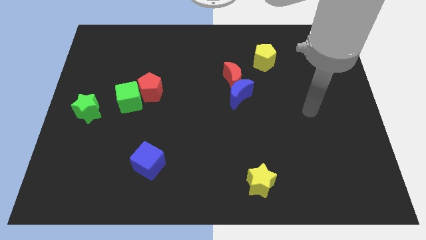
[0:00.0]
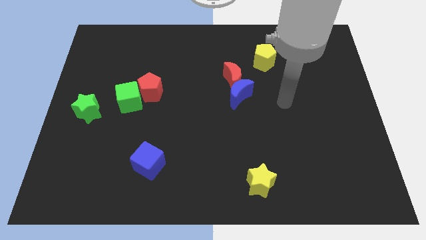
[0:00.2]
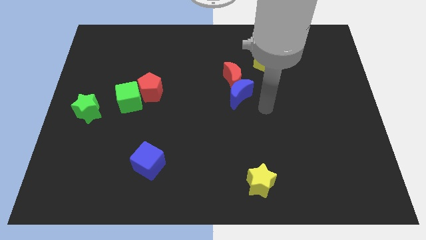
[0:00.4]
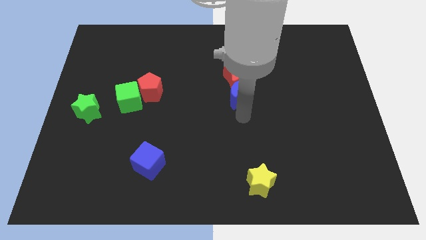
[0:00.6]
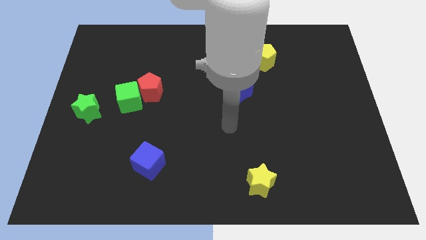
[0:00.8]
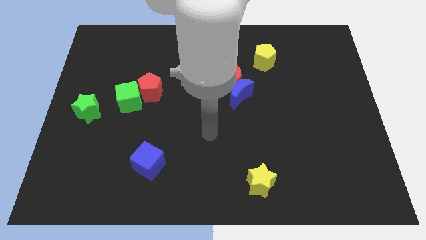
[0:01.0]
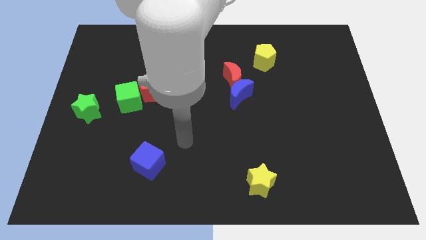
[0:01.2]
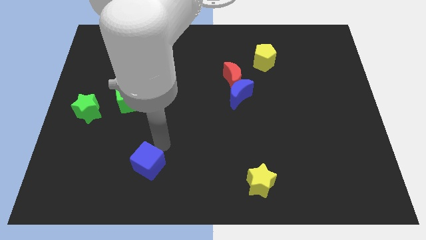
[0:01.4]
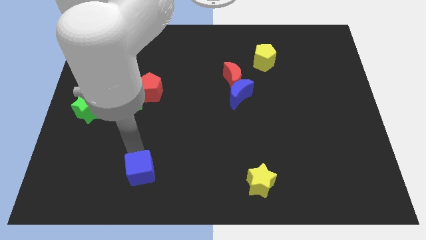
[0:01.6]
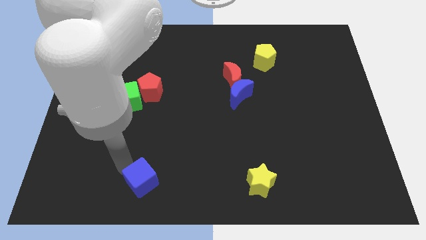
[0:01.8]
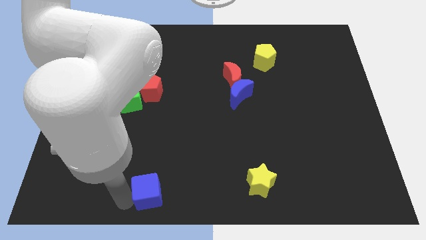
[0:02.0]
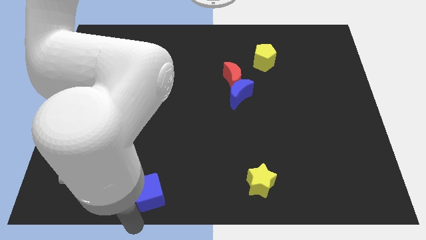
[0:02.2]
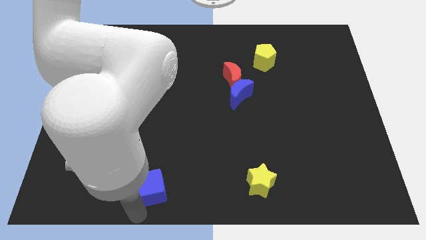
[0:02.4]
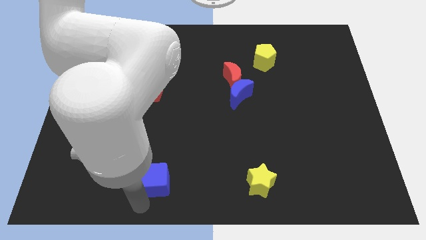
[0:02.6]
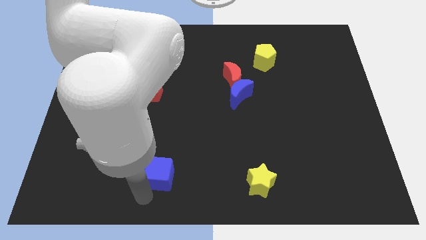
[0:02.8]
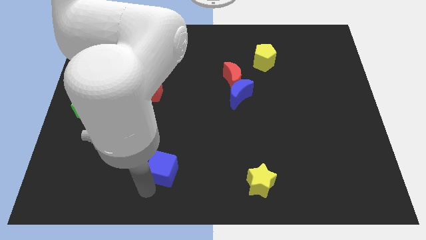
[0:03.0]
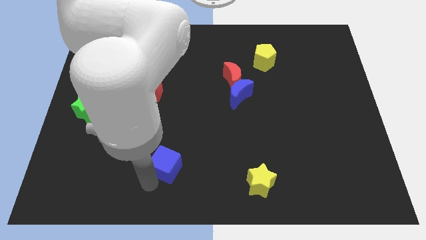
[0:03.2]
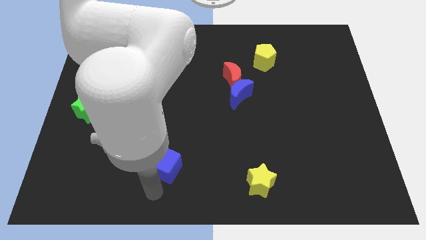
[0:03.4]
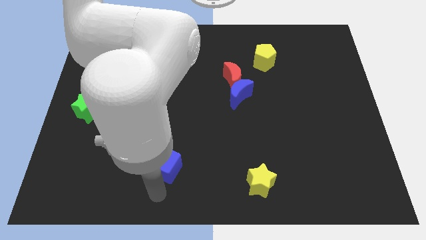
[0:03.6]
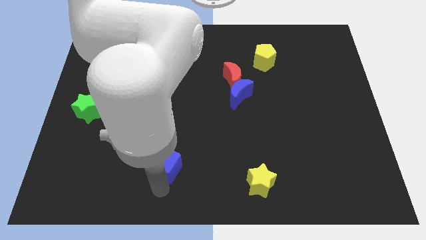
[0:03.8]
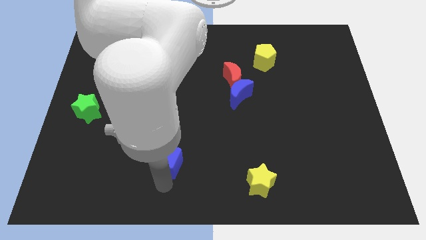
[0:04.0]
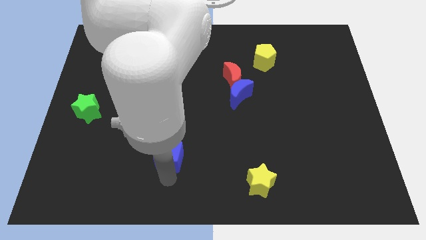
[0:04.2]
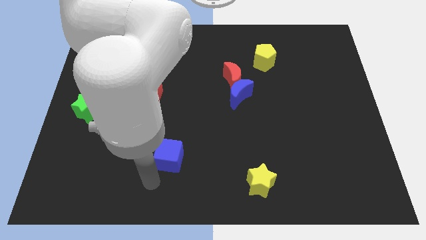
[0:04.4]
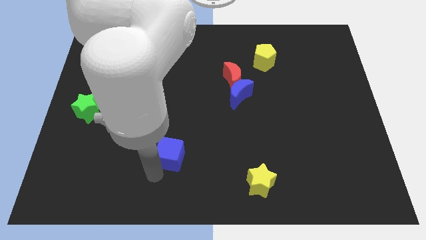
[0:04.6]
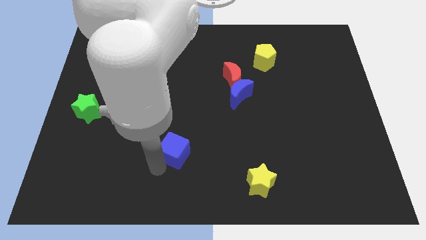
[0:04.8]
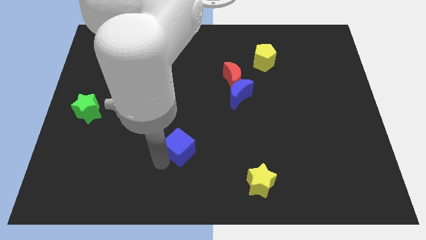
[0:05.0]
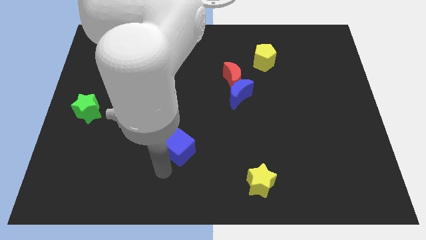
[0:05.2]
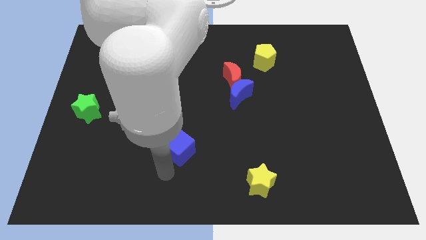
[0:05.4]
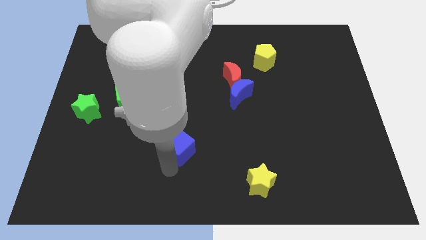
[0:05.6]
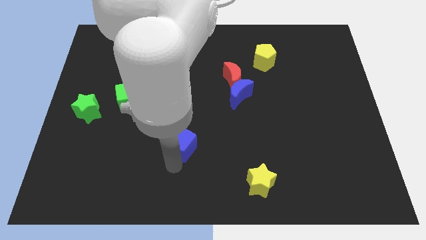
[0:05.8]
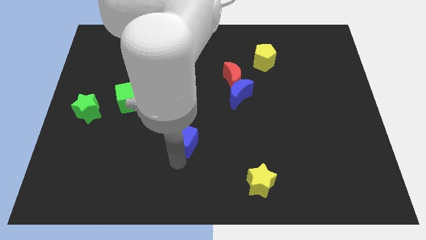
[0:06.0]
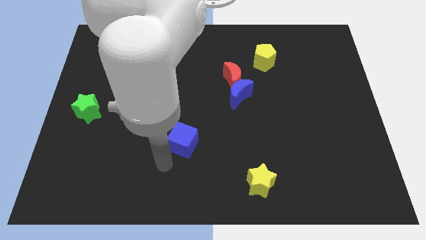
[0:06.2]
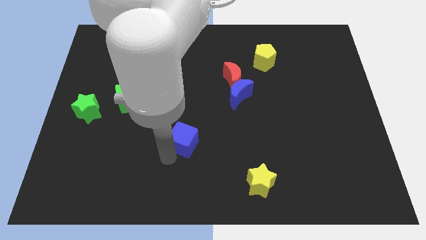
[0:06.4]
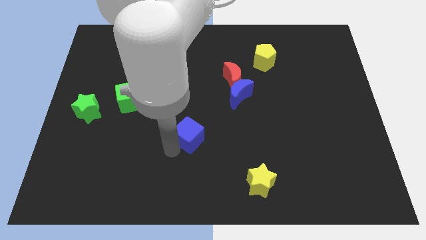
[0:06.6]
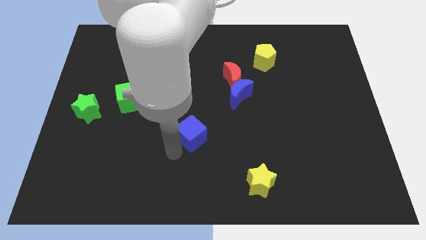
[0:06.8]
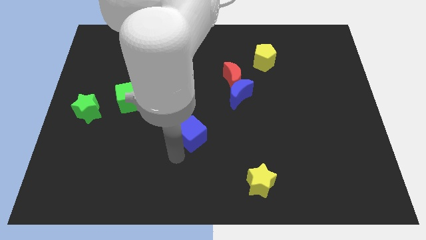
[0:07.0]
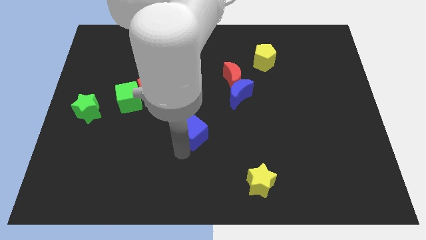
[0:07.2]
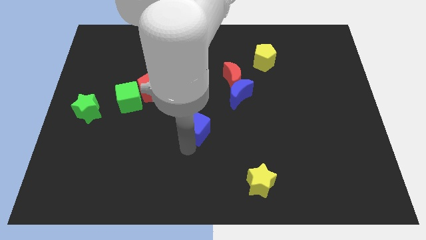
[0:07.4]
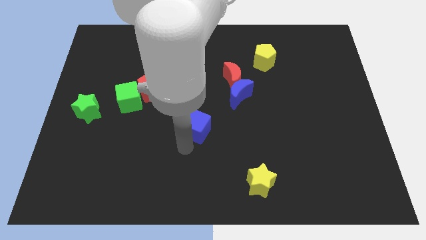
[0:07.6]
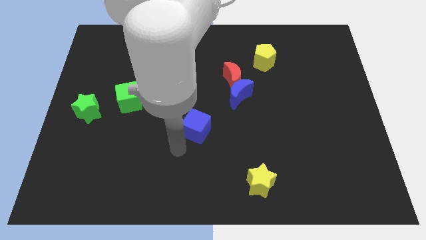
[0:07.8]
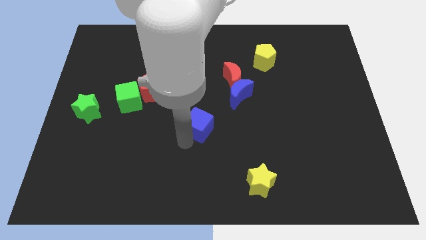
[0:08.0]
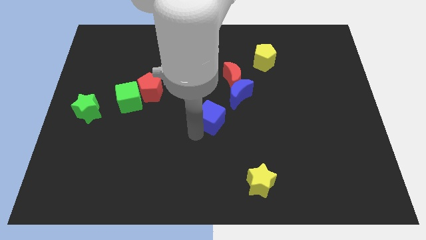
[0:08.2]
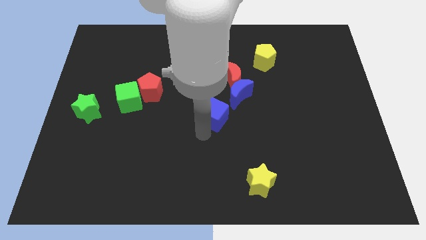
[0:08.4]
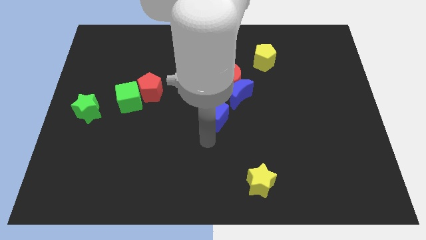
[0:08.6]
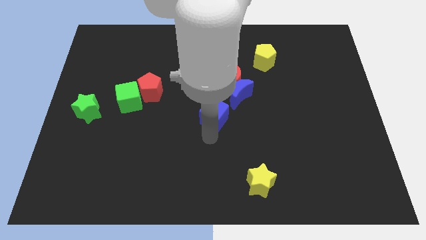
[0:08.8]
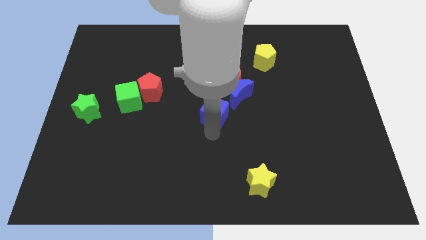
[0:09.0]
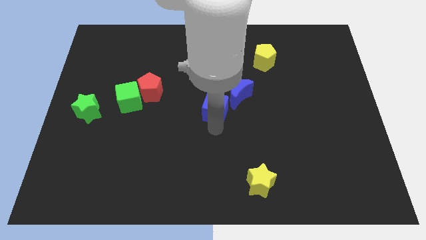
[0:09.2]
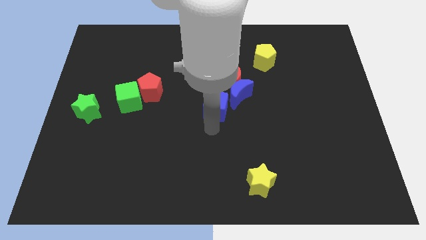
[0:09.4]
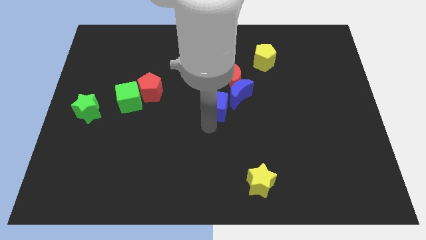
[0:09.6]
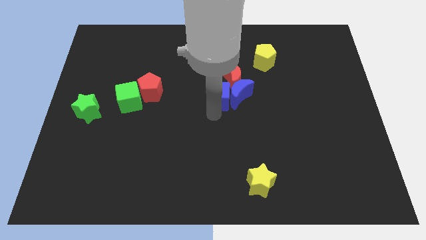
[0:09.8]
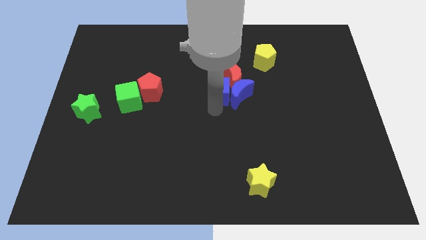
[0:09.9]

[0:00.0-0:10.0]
slide the blue cube to the red moon

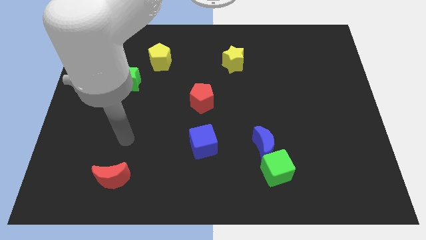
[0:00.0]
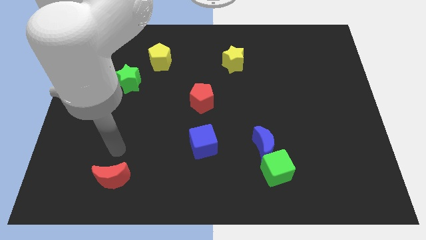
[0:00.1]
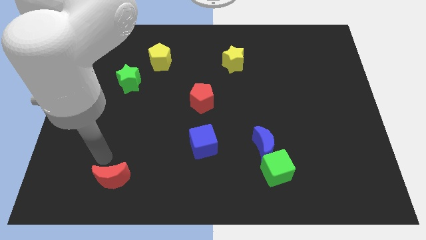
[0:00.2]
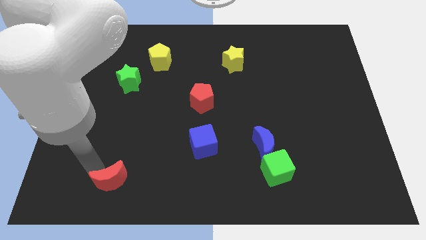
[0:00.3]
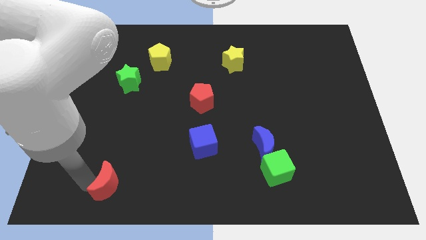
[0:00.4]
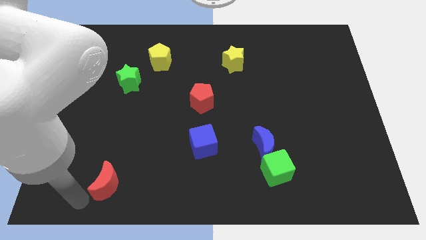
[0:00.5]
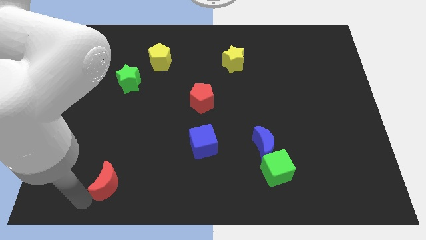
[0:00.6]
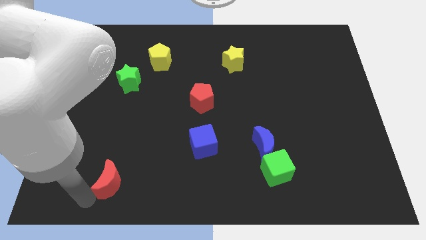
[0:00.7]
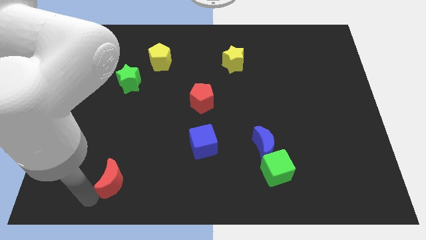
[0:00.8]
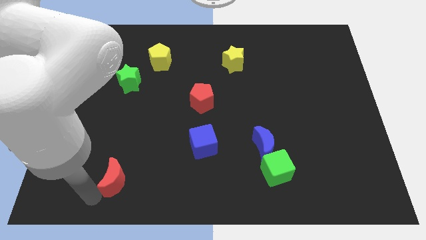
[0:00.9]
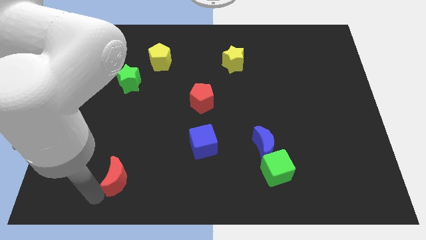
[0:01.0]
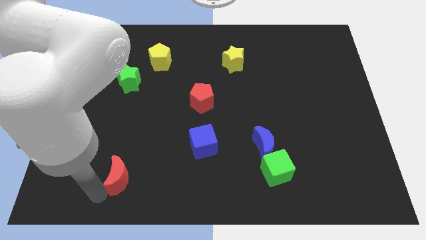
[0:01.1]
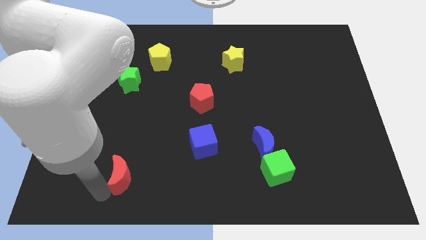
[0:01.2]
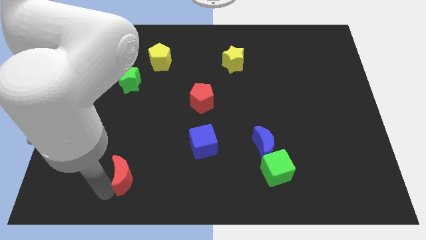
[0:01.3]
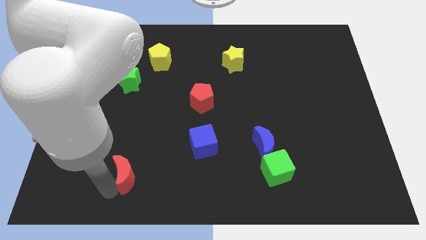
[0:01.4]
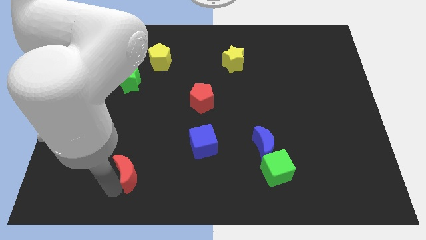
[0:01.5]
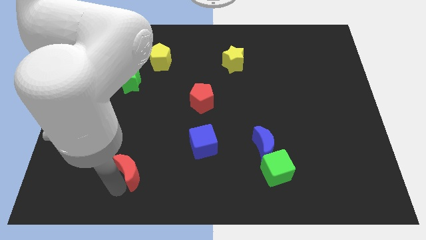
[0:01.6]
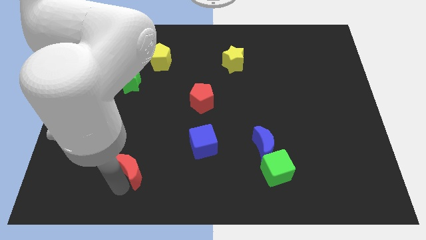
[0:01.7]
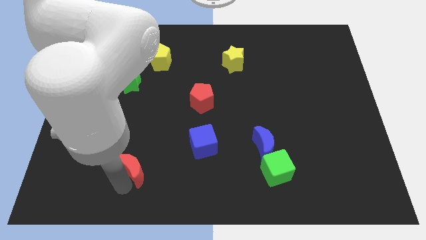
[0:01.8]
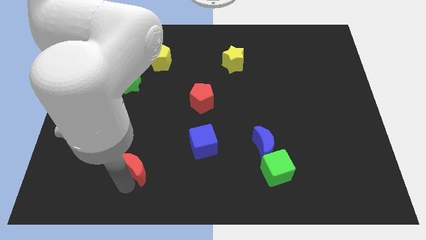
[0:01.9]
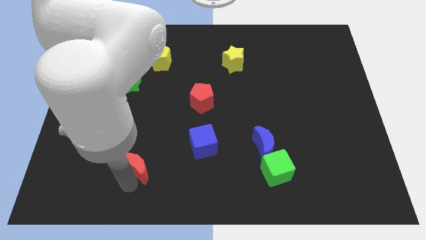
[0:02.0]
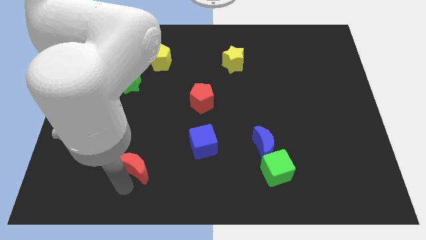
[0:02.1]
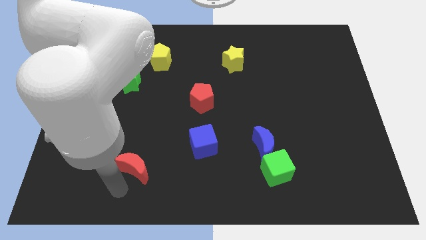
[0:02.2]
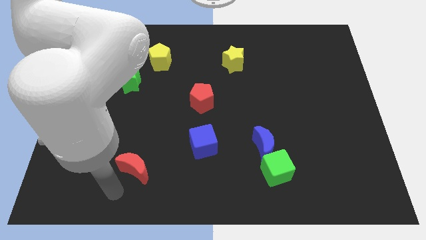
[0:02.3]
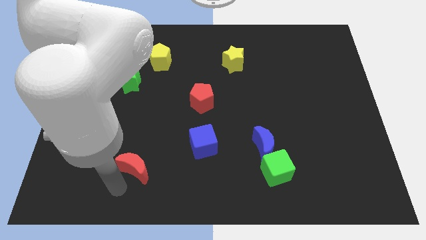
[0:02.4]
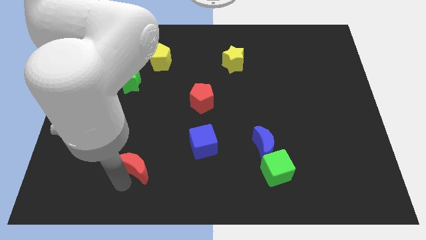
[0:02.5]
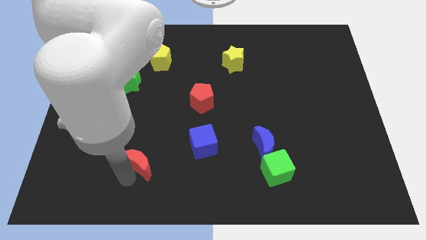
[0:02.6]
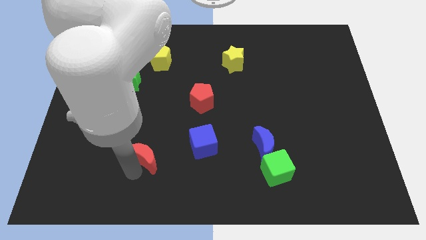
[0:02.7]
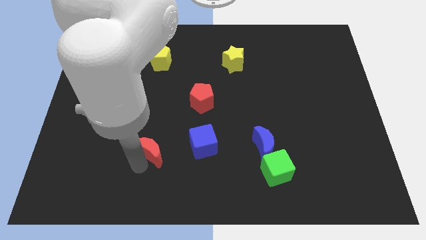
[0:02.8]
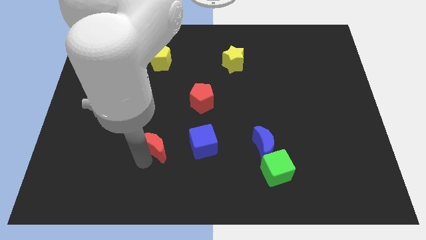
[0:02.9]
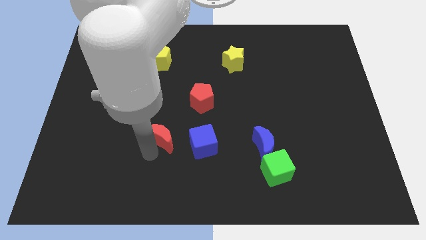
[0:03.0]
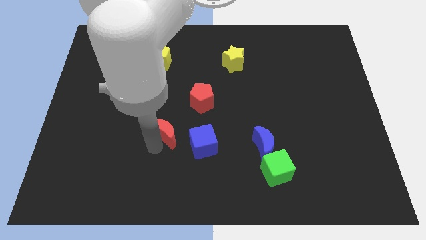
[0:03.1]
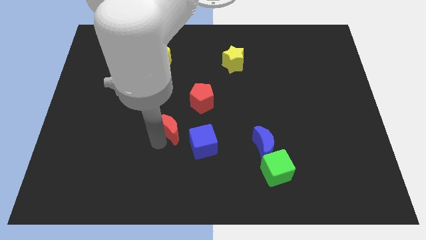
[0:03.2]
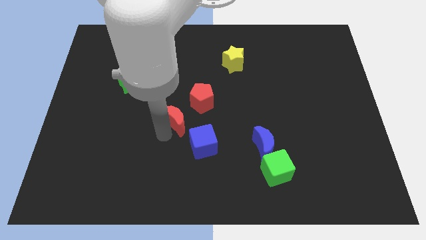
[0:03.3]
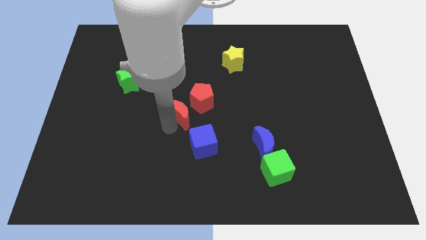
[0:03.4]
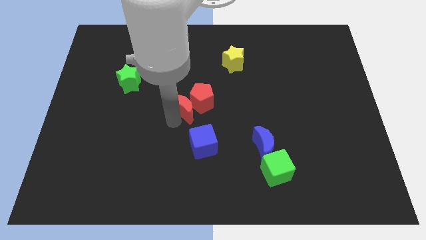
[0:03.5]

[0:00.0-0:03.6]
slide the red moon towards the red pentagon
